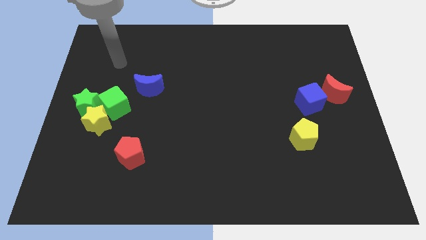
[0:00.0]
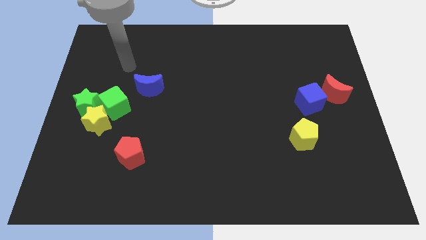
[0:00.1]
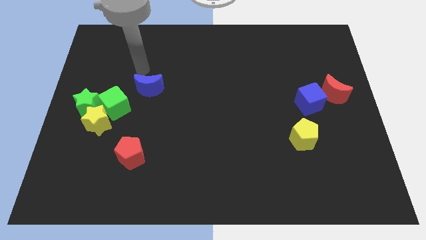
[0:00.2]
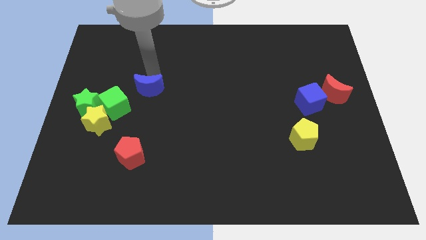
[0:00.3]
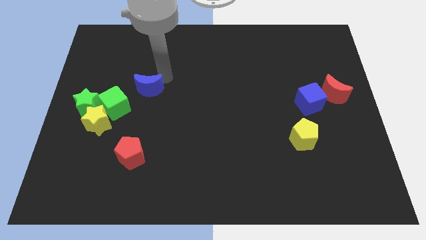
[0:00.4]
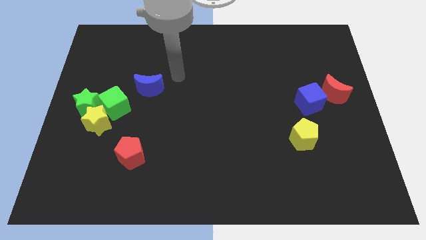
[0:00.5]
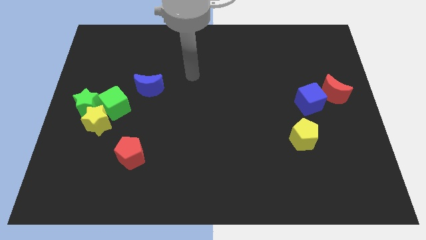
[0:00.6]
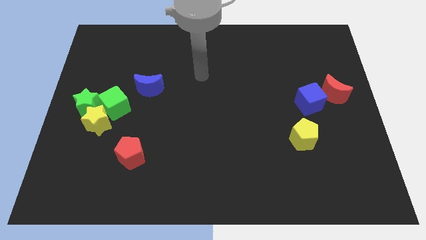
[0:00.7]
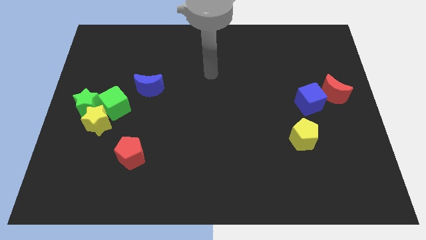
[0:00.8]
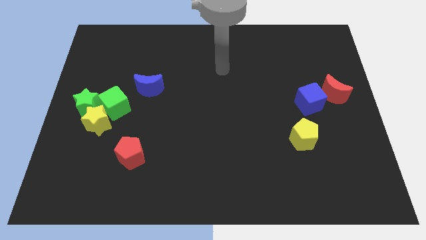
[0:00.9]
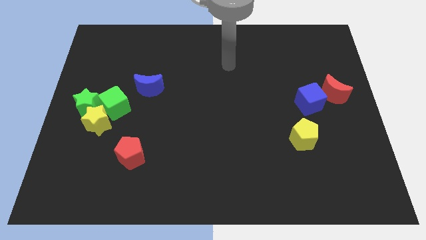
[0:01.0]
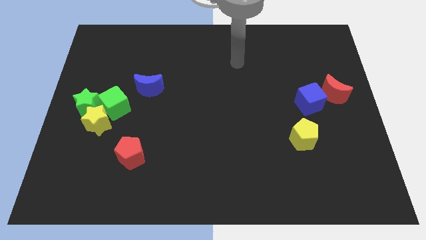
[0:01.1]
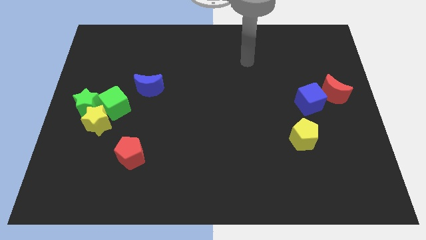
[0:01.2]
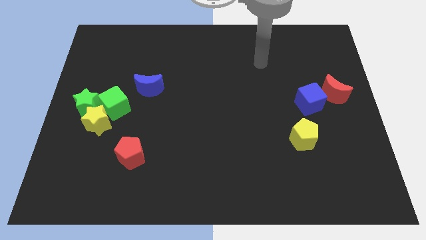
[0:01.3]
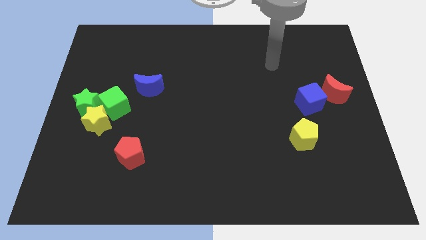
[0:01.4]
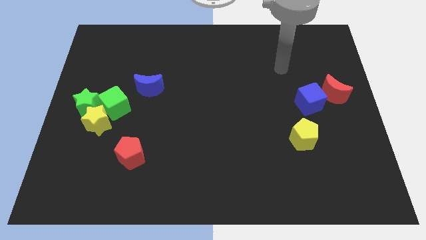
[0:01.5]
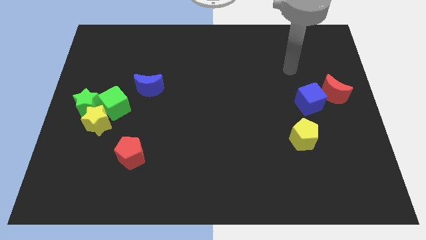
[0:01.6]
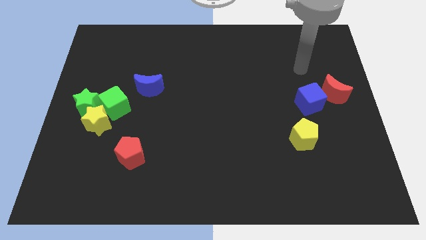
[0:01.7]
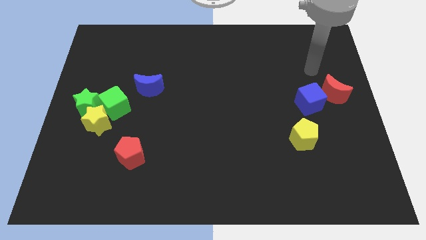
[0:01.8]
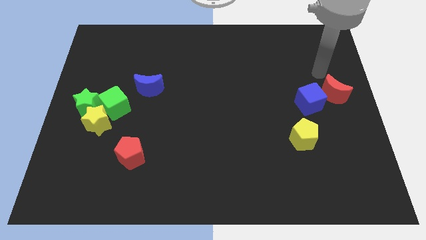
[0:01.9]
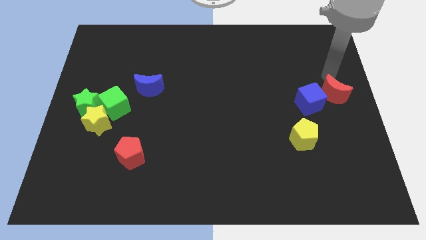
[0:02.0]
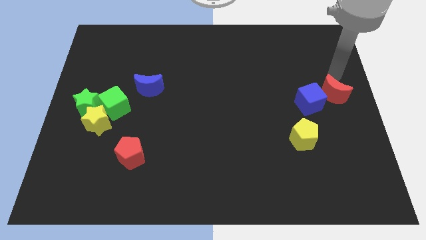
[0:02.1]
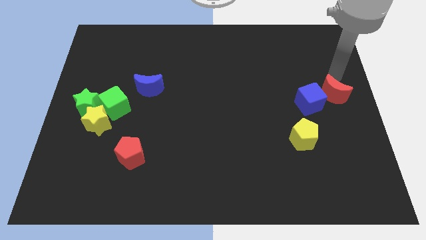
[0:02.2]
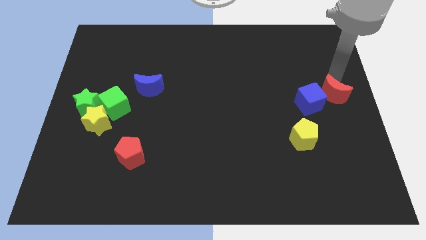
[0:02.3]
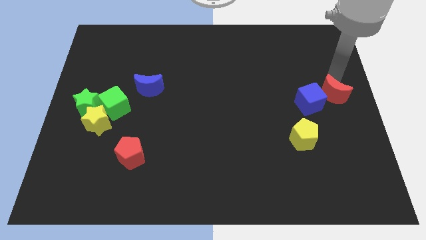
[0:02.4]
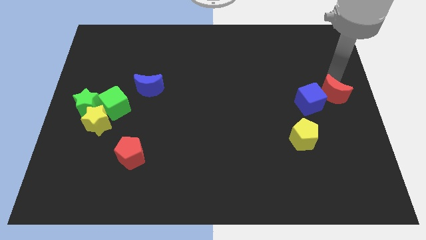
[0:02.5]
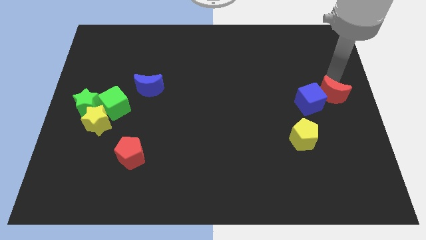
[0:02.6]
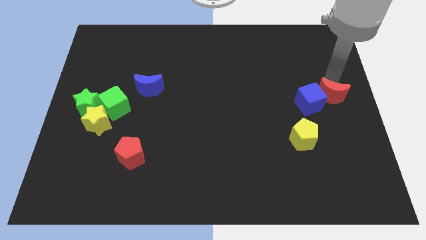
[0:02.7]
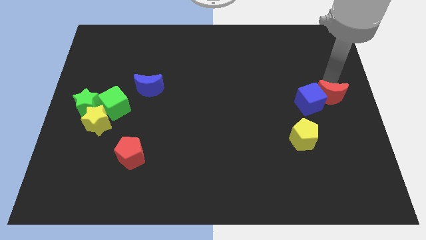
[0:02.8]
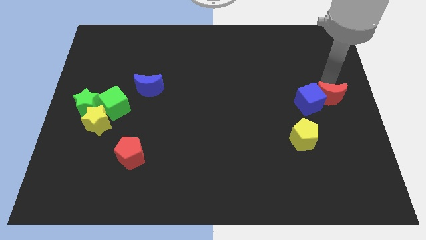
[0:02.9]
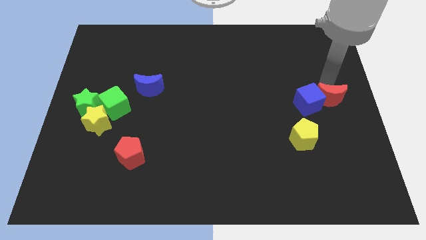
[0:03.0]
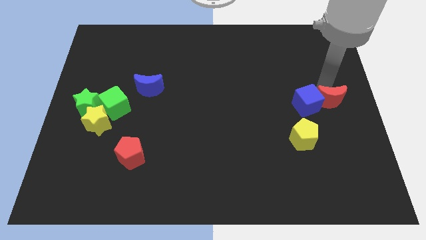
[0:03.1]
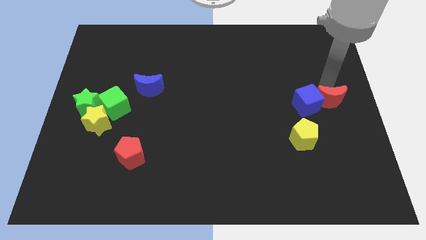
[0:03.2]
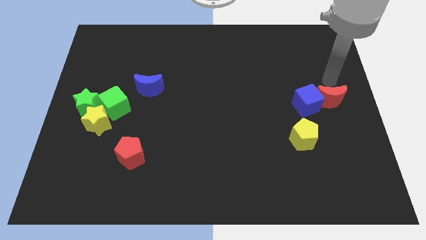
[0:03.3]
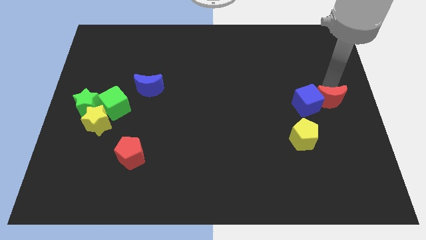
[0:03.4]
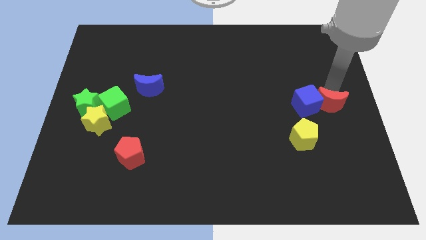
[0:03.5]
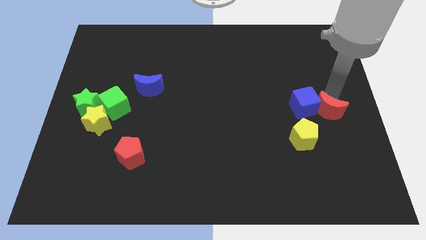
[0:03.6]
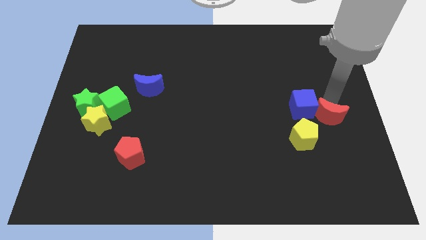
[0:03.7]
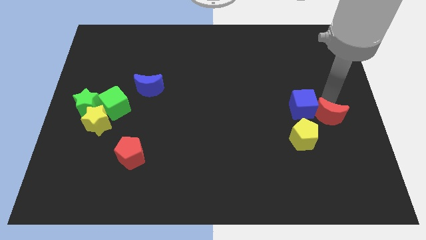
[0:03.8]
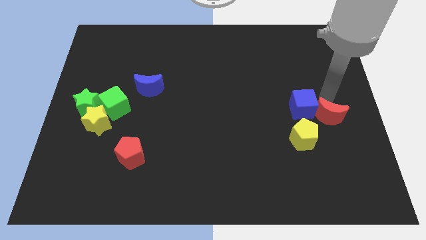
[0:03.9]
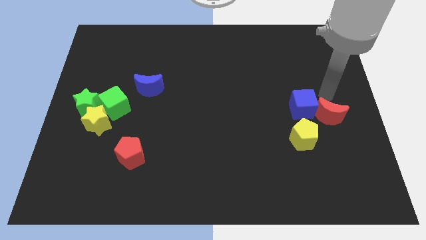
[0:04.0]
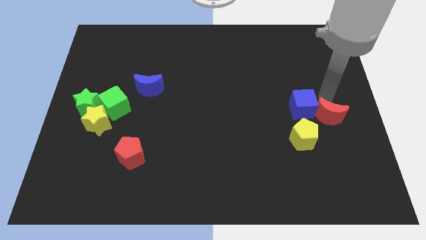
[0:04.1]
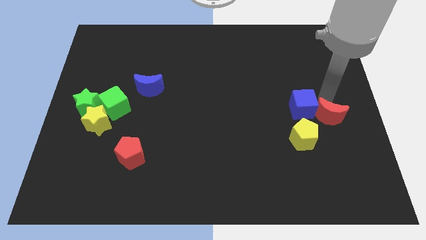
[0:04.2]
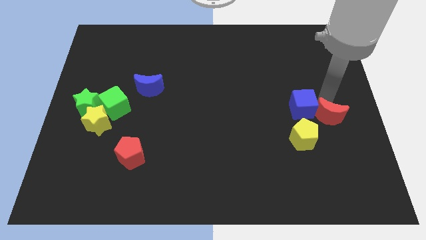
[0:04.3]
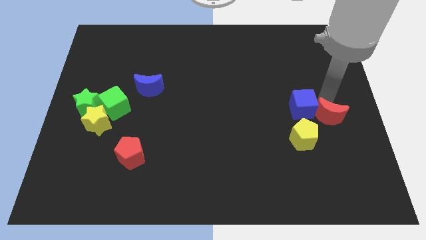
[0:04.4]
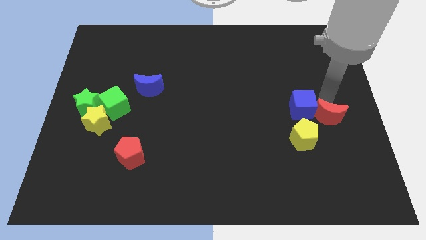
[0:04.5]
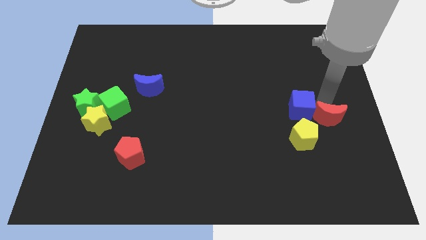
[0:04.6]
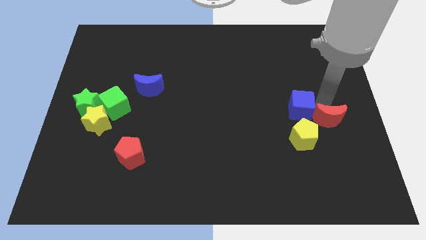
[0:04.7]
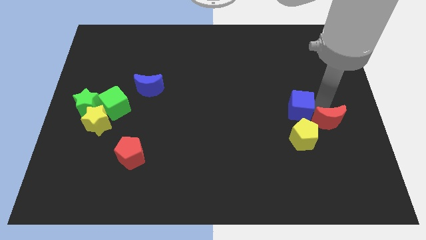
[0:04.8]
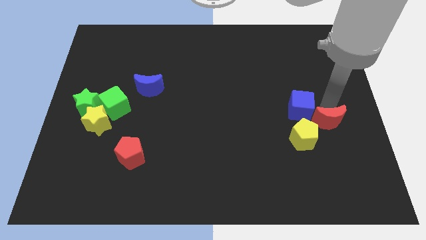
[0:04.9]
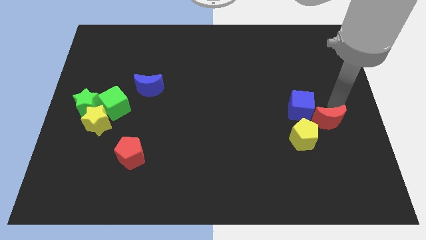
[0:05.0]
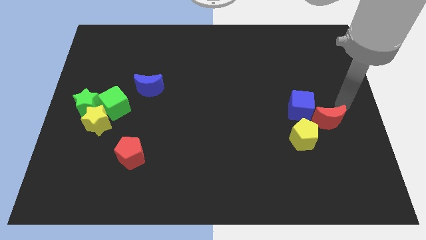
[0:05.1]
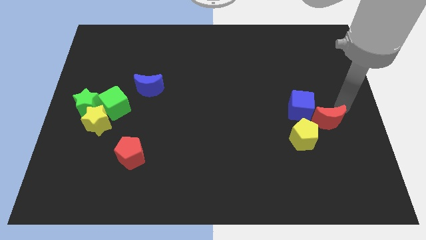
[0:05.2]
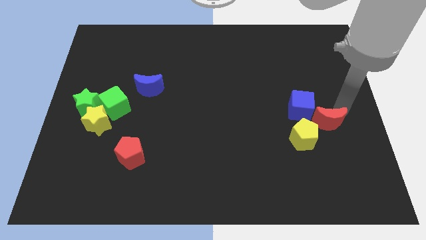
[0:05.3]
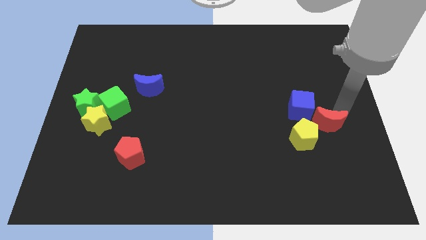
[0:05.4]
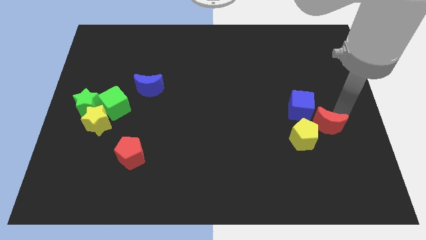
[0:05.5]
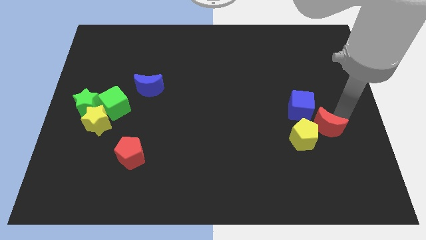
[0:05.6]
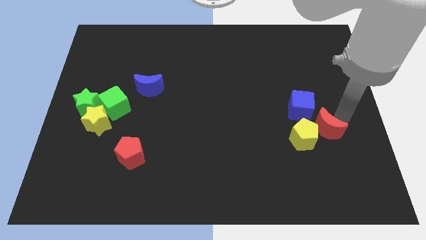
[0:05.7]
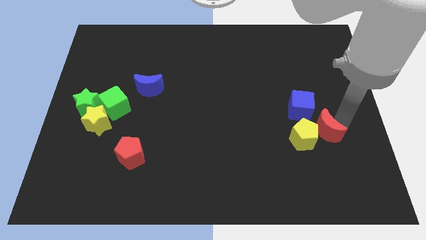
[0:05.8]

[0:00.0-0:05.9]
slide the red moon below the blue cube

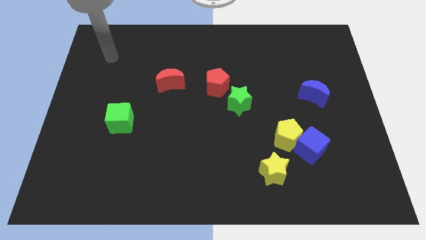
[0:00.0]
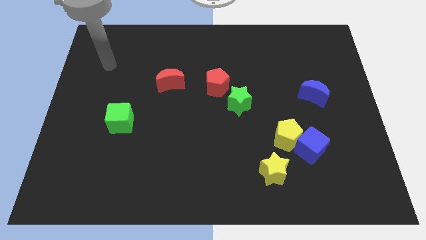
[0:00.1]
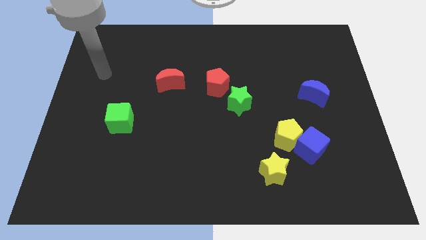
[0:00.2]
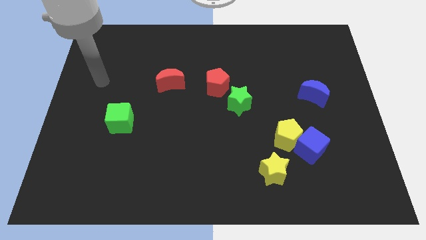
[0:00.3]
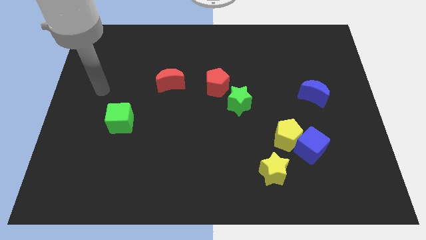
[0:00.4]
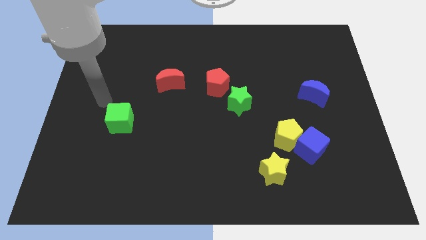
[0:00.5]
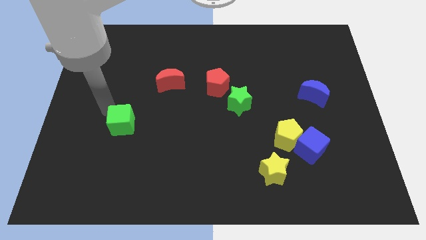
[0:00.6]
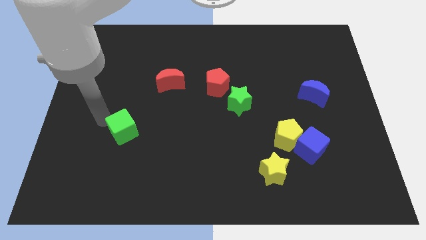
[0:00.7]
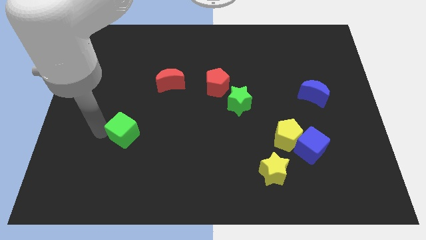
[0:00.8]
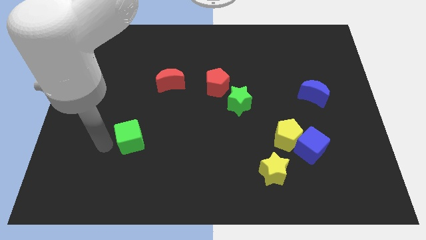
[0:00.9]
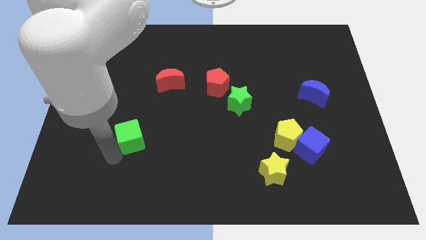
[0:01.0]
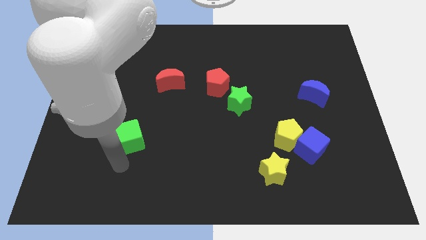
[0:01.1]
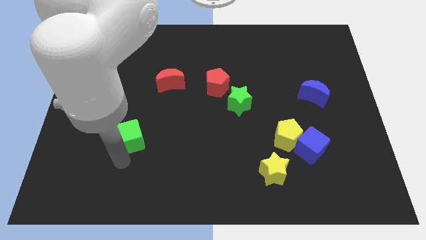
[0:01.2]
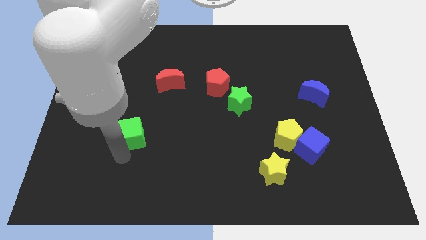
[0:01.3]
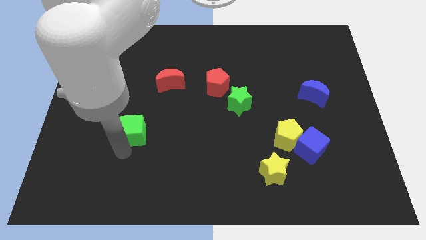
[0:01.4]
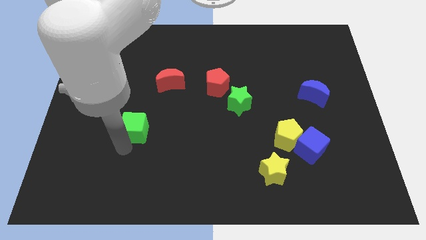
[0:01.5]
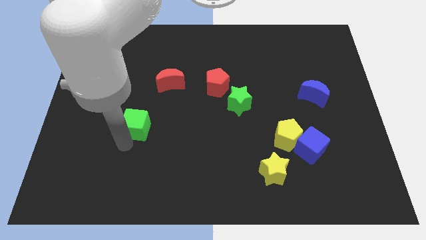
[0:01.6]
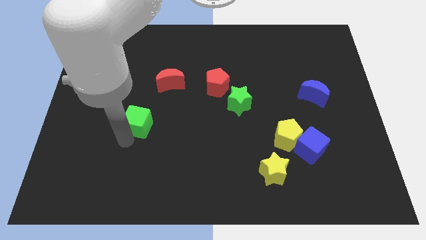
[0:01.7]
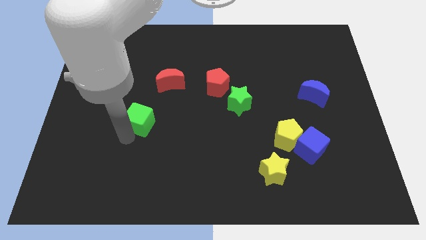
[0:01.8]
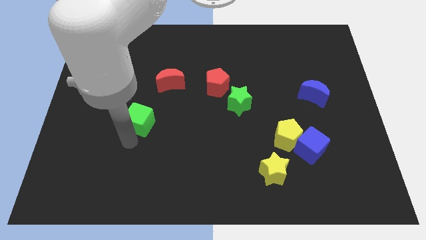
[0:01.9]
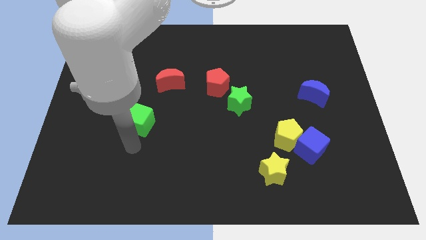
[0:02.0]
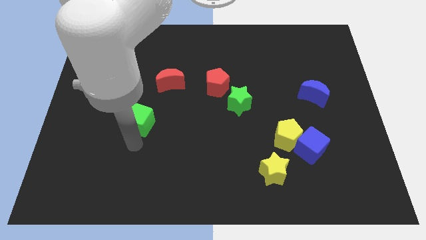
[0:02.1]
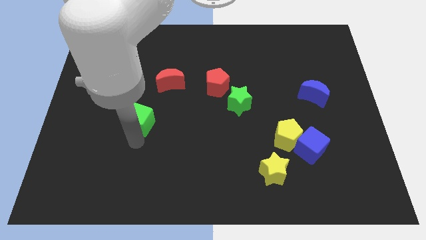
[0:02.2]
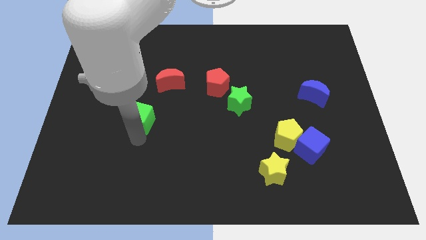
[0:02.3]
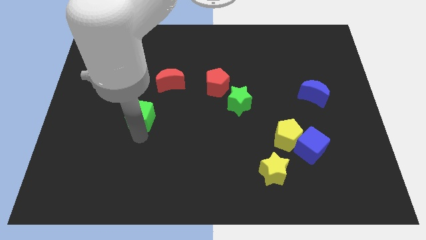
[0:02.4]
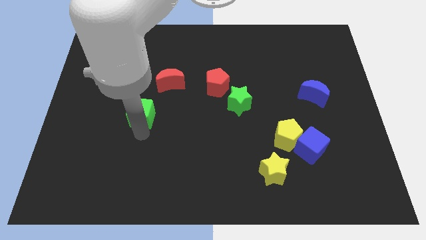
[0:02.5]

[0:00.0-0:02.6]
put the green cube to the bottom left of the red moon

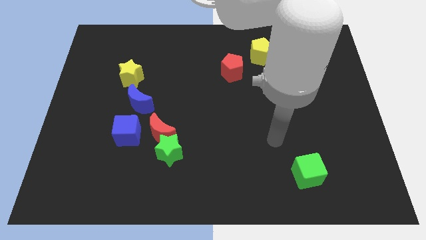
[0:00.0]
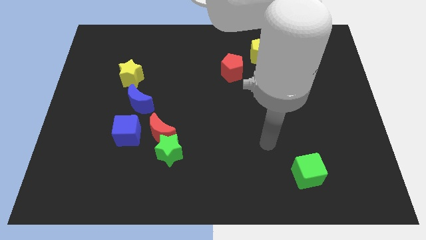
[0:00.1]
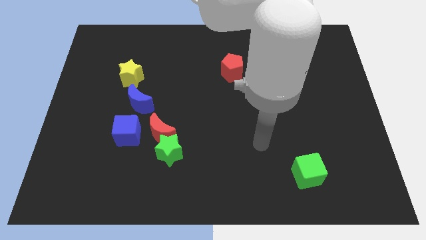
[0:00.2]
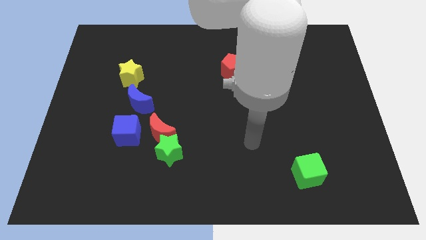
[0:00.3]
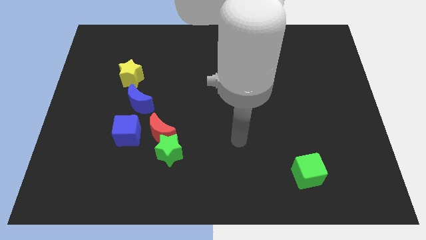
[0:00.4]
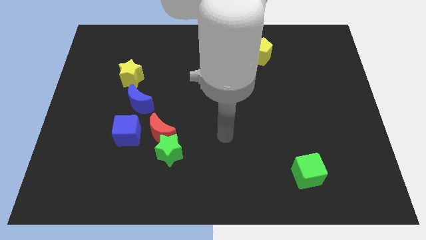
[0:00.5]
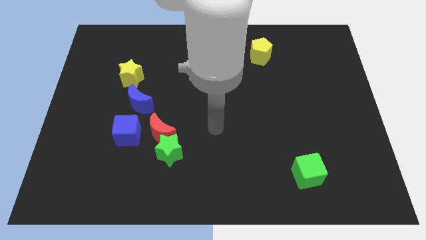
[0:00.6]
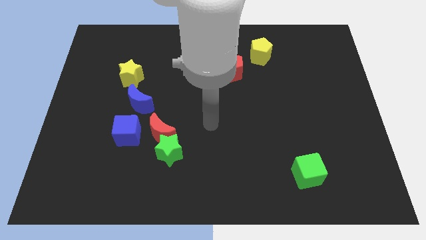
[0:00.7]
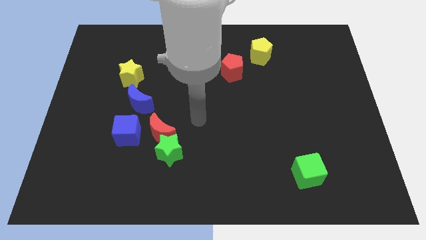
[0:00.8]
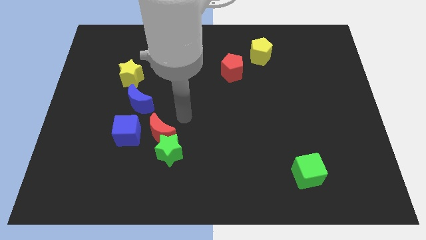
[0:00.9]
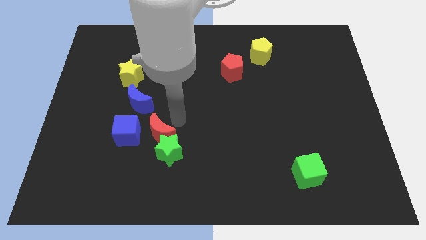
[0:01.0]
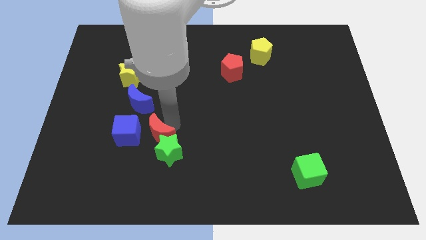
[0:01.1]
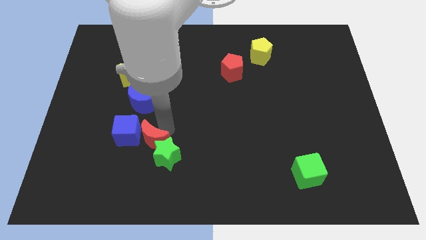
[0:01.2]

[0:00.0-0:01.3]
move the red moon left of the green star
